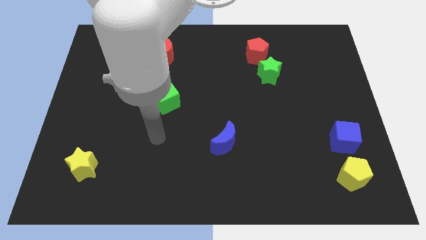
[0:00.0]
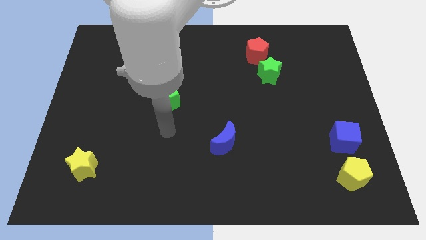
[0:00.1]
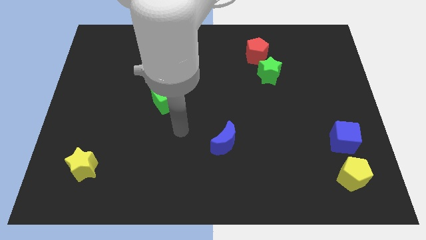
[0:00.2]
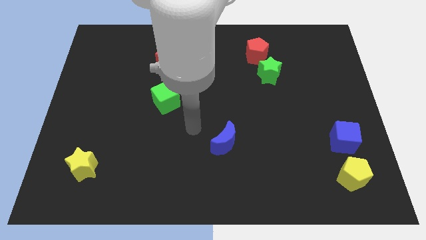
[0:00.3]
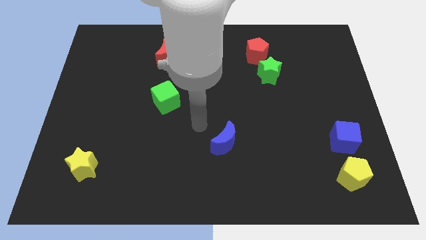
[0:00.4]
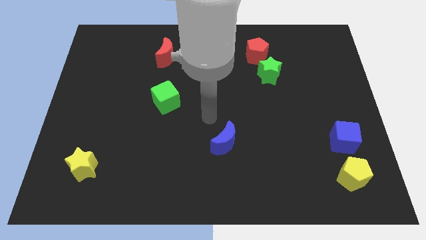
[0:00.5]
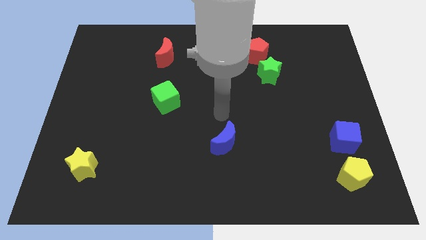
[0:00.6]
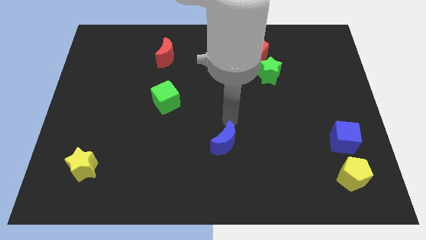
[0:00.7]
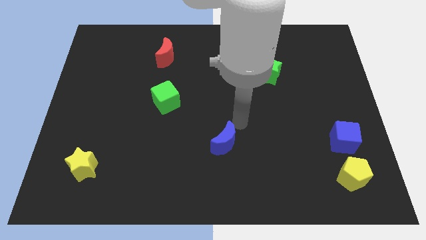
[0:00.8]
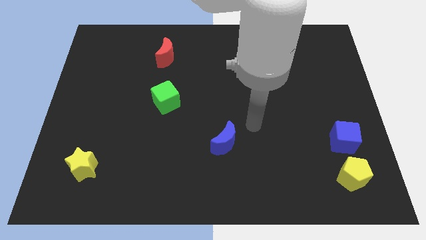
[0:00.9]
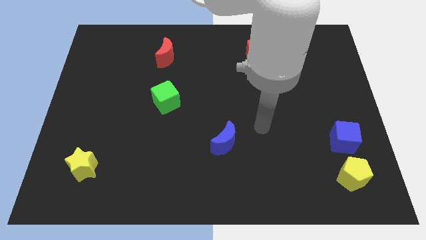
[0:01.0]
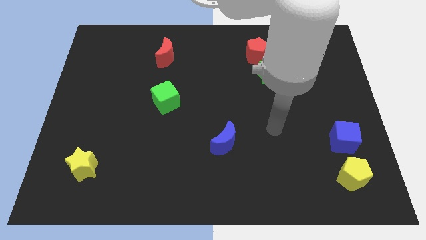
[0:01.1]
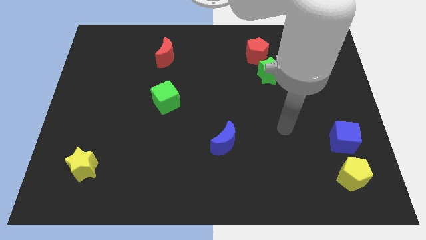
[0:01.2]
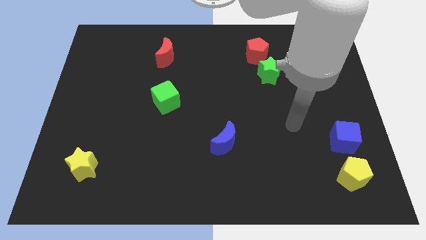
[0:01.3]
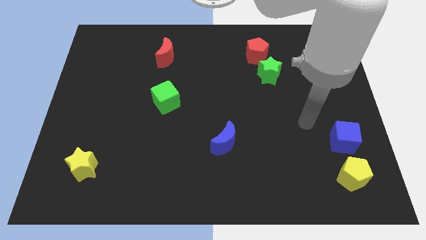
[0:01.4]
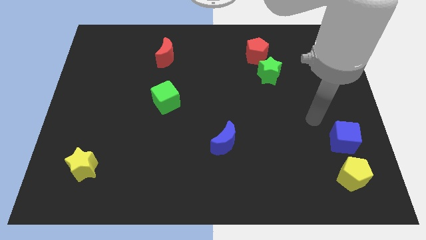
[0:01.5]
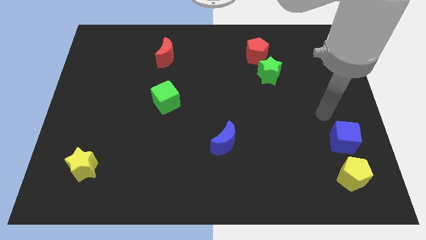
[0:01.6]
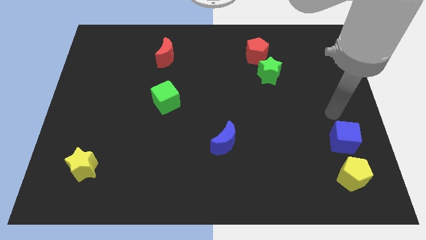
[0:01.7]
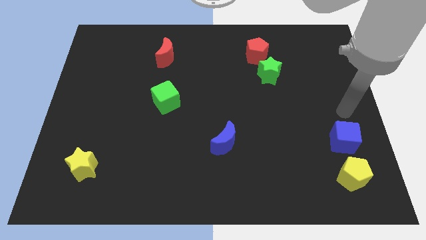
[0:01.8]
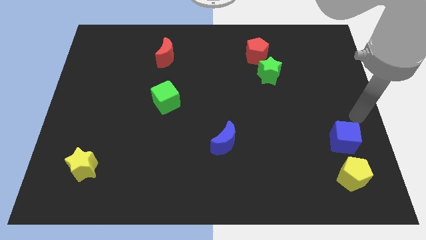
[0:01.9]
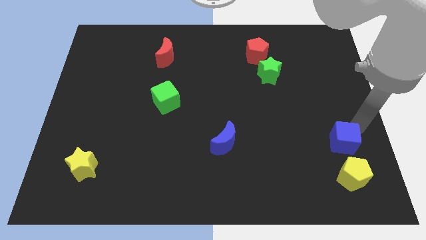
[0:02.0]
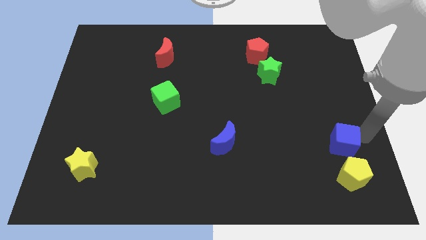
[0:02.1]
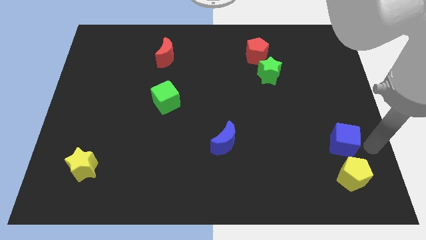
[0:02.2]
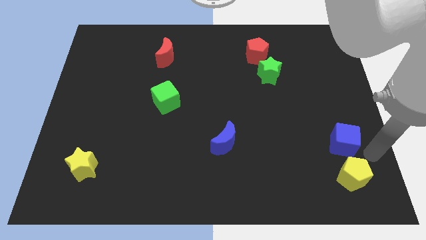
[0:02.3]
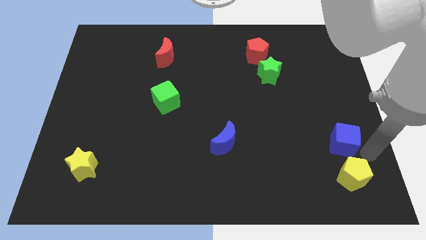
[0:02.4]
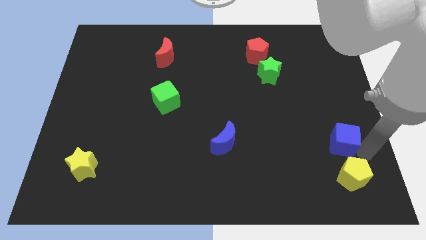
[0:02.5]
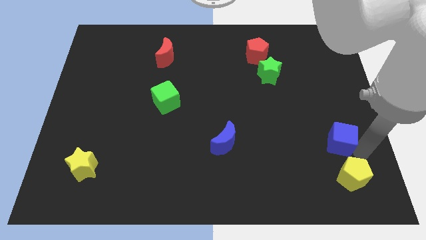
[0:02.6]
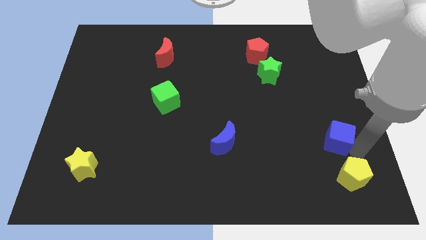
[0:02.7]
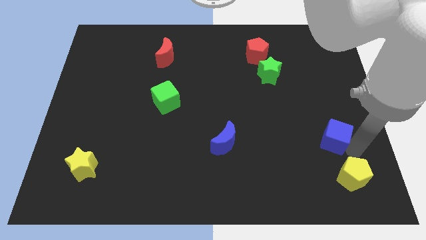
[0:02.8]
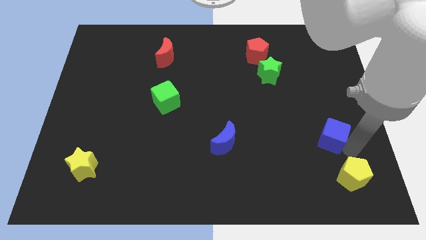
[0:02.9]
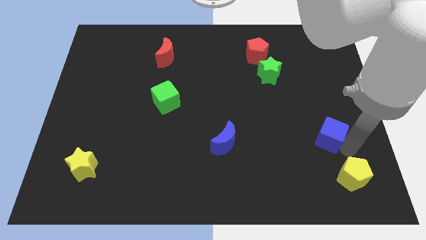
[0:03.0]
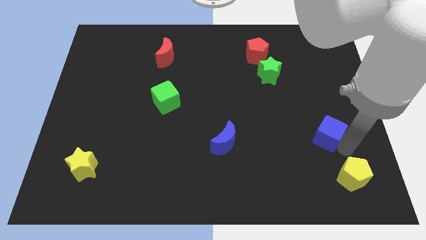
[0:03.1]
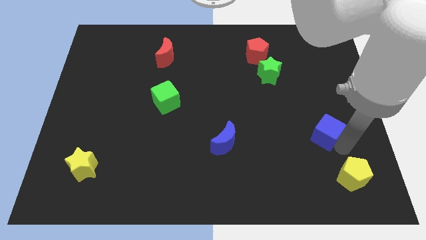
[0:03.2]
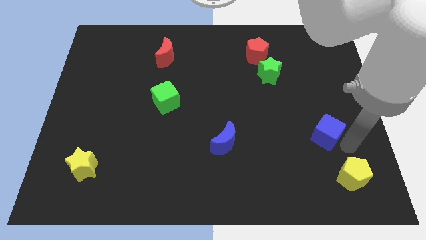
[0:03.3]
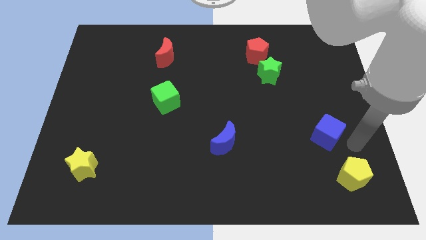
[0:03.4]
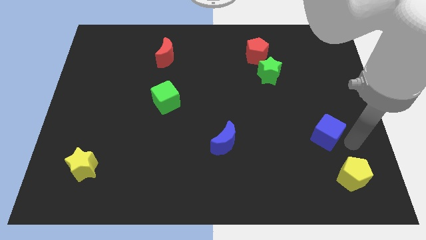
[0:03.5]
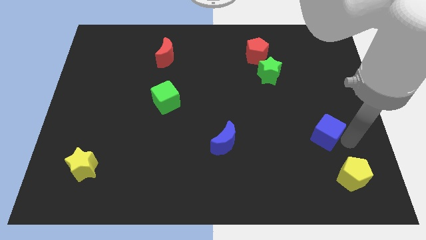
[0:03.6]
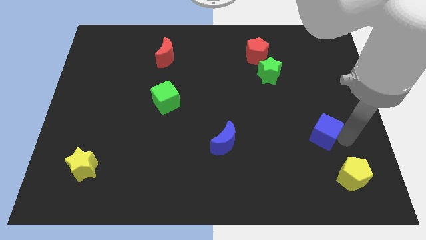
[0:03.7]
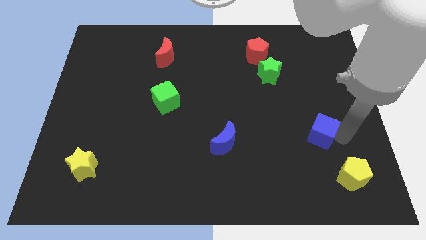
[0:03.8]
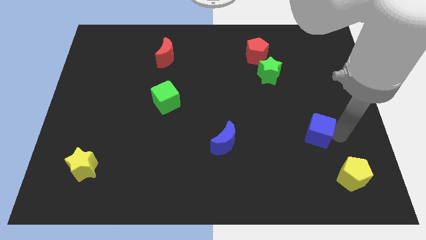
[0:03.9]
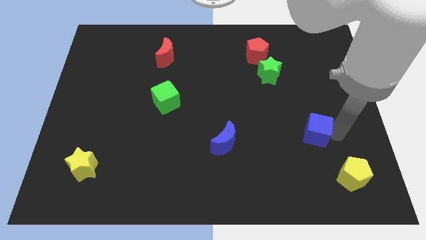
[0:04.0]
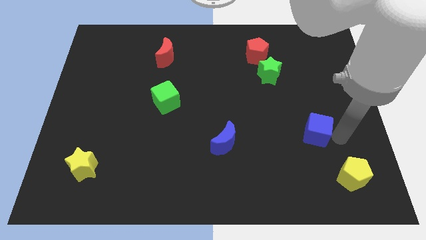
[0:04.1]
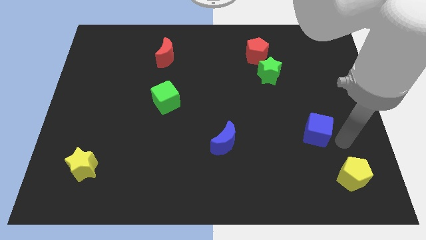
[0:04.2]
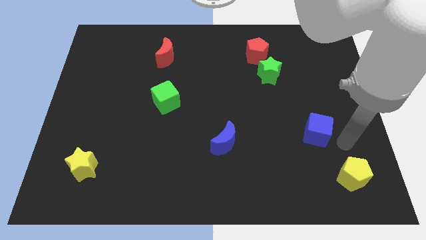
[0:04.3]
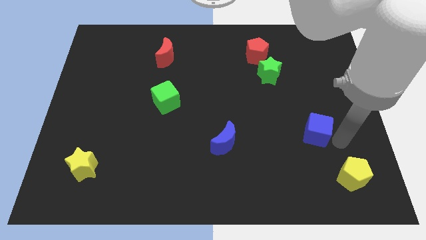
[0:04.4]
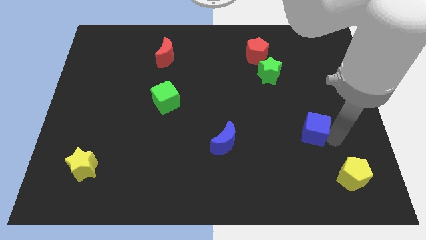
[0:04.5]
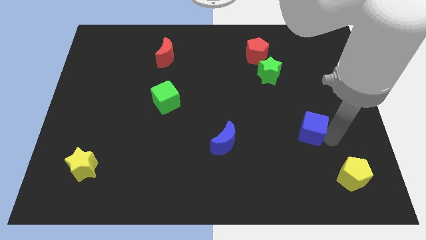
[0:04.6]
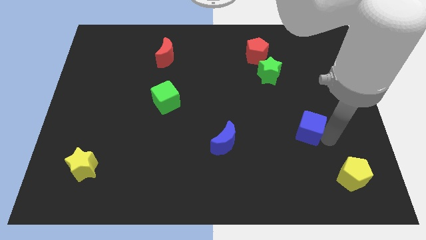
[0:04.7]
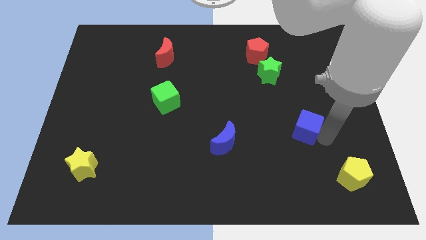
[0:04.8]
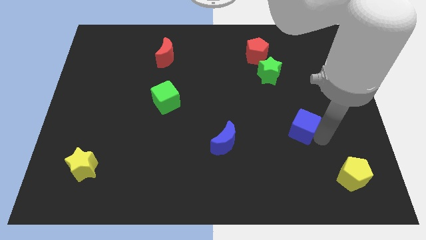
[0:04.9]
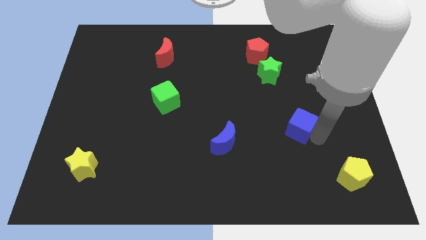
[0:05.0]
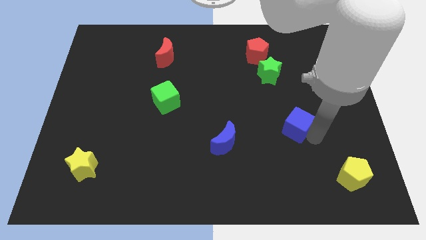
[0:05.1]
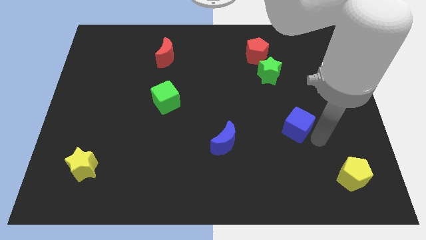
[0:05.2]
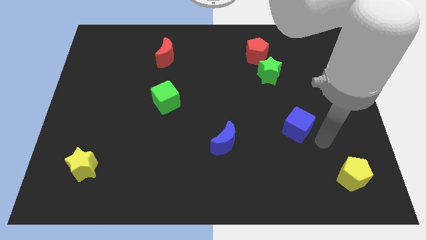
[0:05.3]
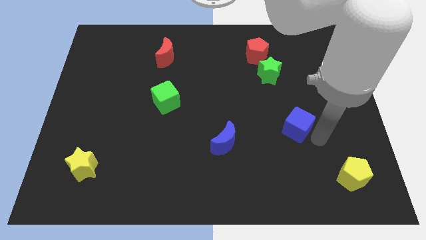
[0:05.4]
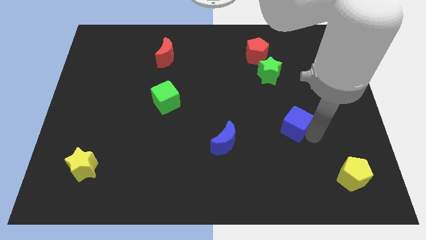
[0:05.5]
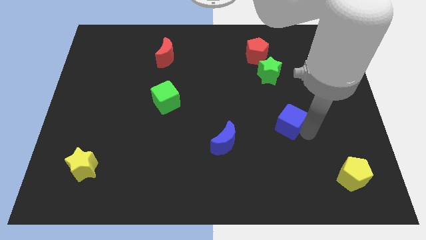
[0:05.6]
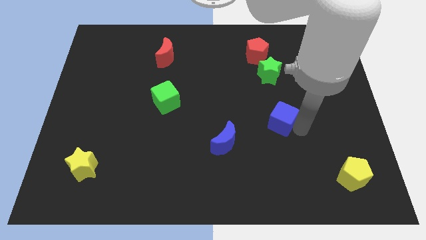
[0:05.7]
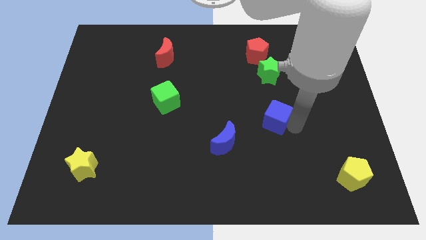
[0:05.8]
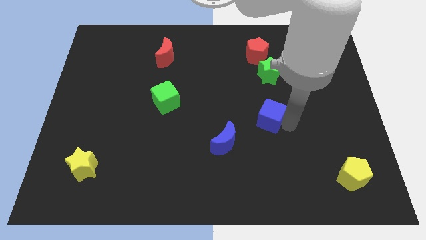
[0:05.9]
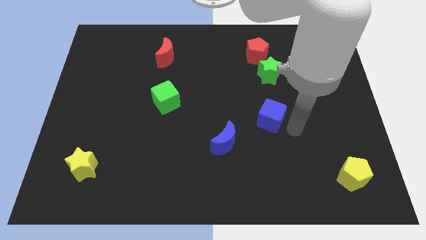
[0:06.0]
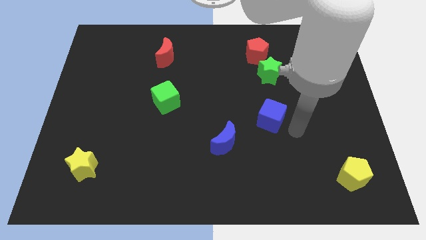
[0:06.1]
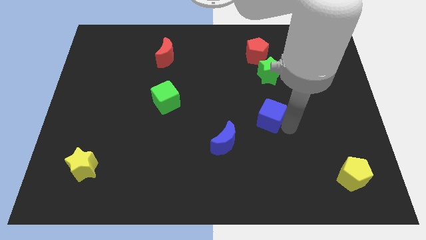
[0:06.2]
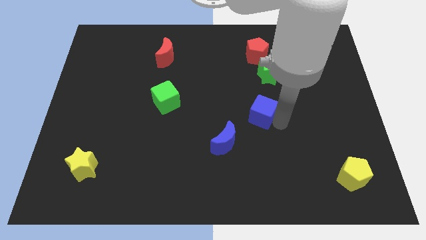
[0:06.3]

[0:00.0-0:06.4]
push the blue cube to the center
